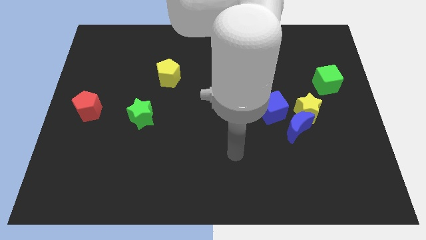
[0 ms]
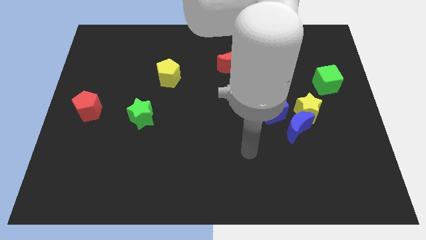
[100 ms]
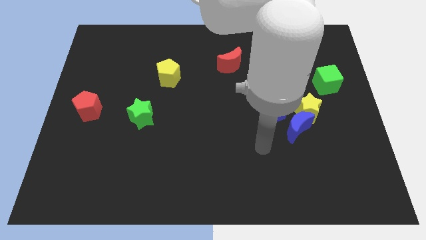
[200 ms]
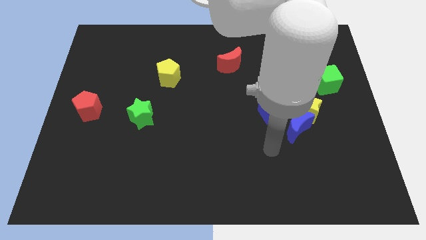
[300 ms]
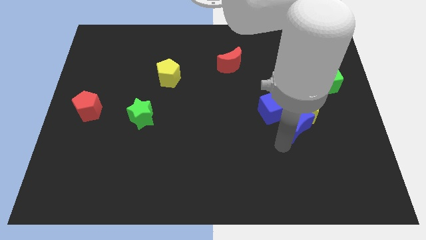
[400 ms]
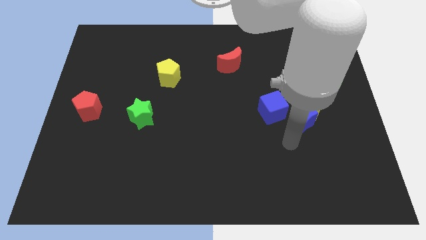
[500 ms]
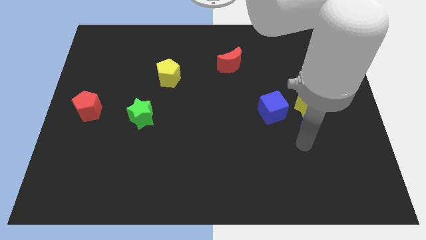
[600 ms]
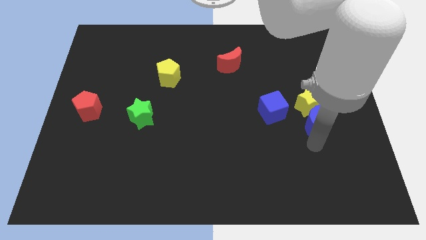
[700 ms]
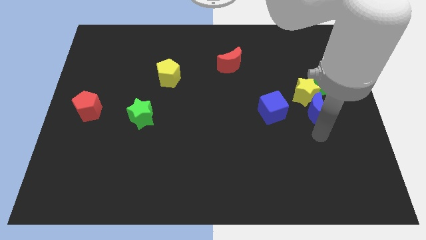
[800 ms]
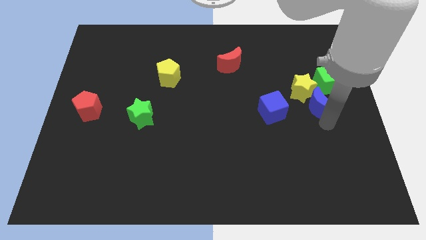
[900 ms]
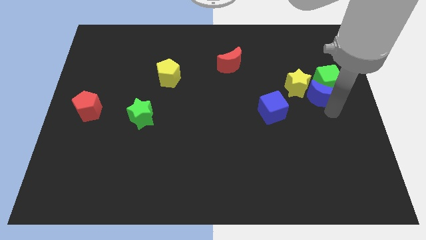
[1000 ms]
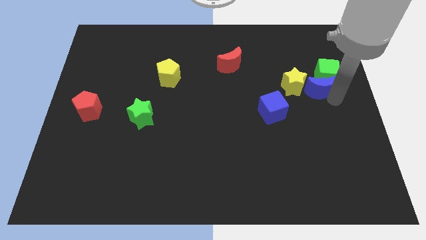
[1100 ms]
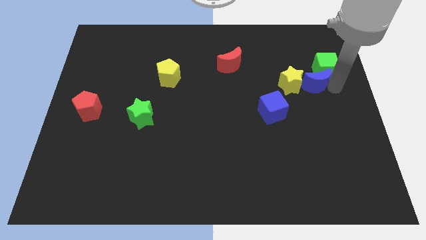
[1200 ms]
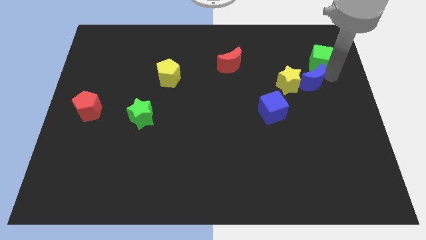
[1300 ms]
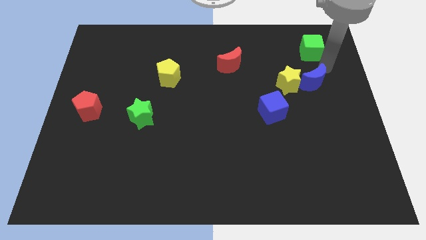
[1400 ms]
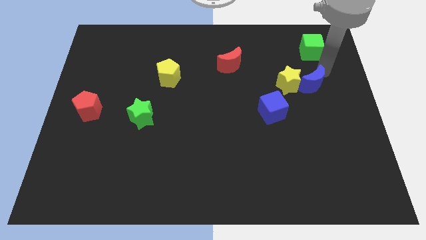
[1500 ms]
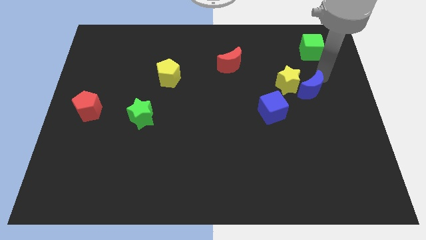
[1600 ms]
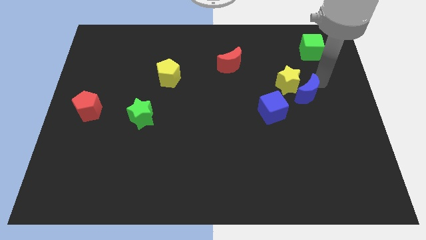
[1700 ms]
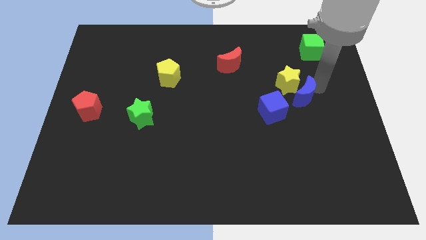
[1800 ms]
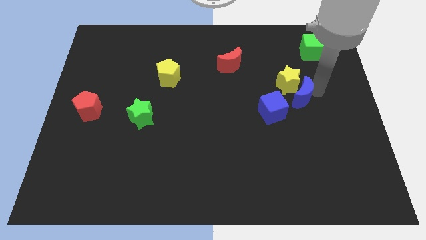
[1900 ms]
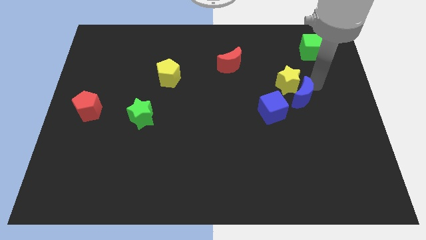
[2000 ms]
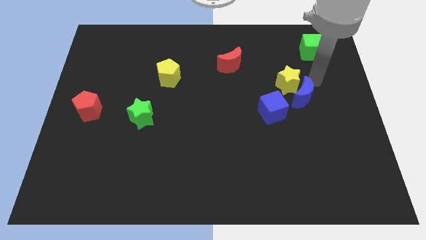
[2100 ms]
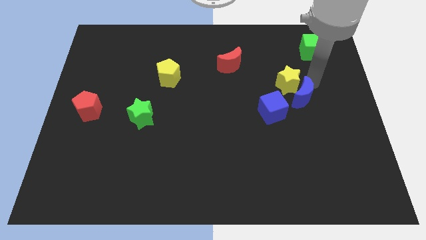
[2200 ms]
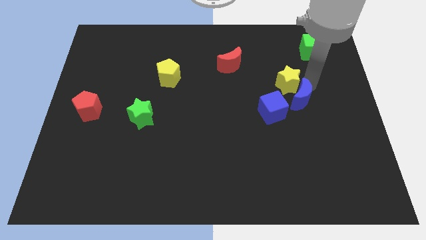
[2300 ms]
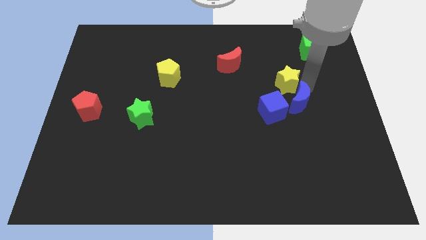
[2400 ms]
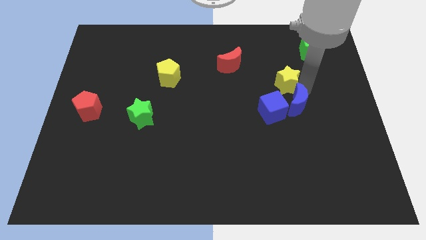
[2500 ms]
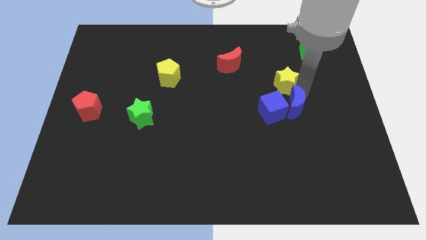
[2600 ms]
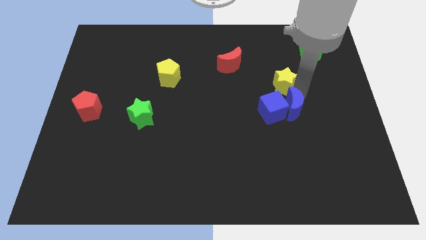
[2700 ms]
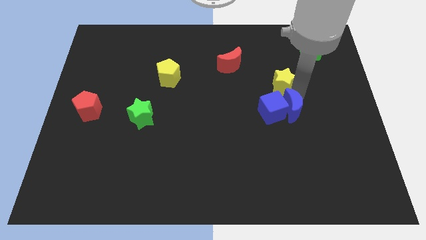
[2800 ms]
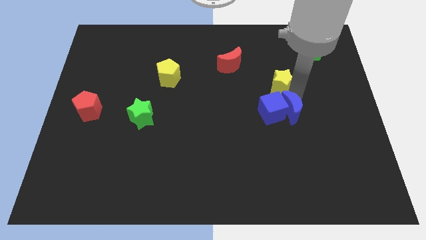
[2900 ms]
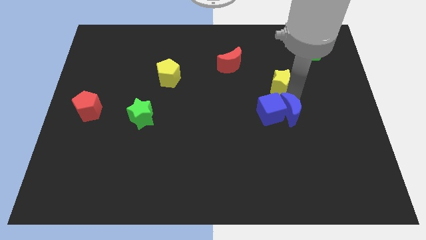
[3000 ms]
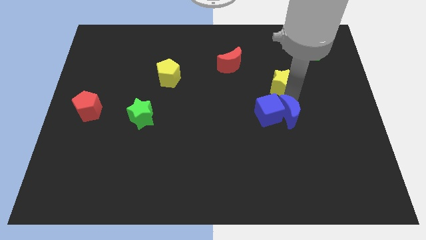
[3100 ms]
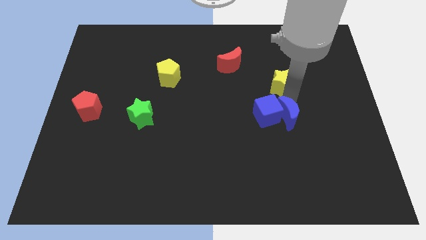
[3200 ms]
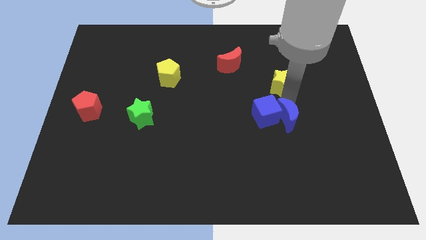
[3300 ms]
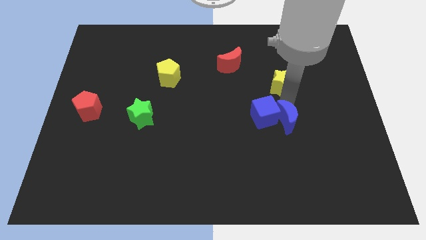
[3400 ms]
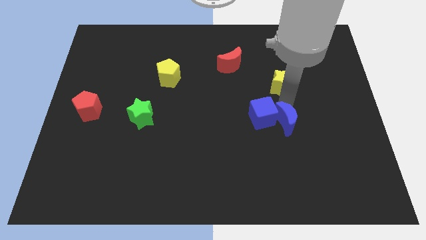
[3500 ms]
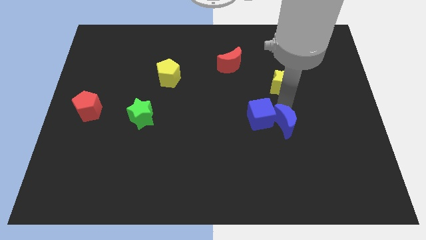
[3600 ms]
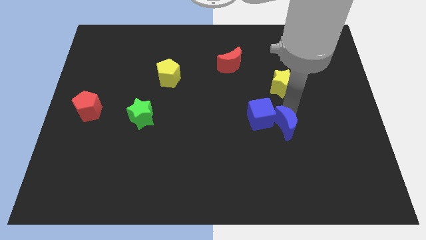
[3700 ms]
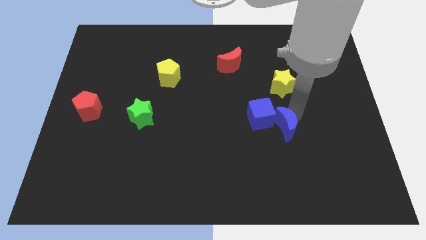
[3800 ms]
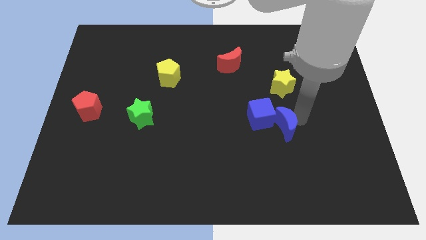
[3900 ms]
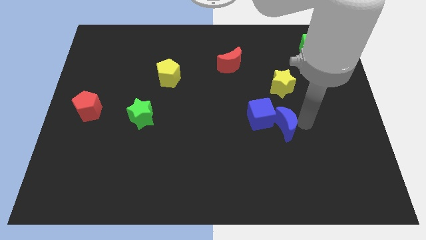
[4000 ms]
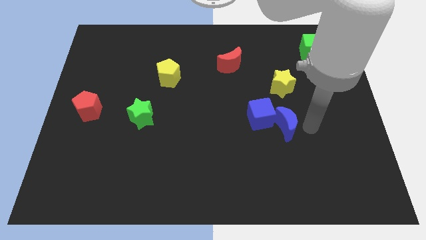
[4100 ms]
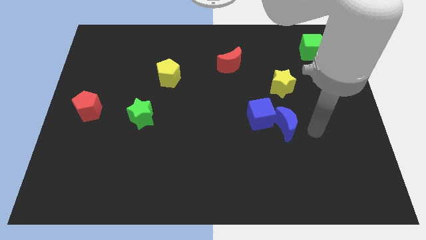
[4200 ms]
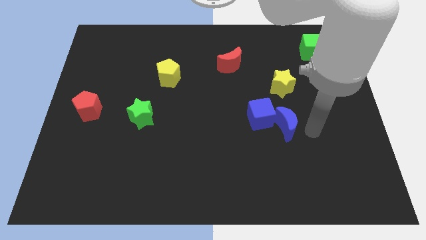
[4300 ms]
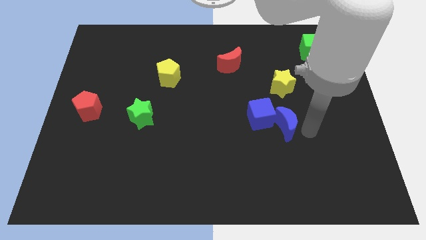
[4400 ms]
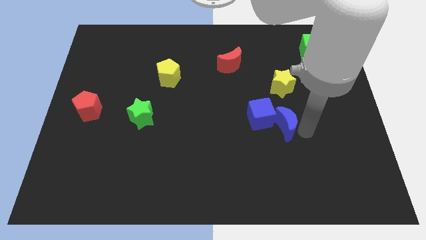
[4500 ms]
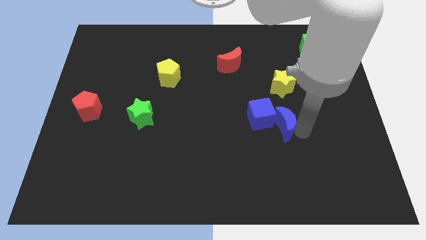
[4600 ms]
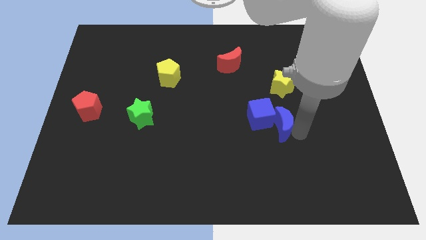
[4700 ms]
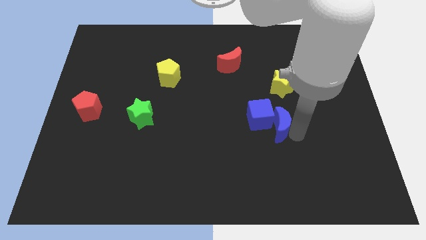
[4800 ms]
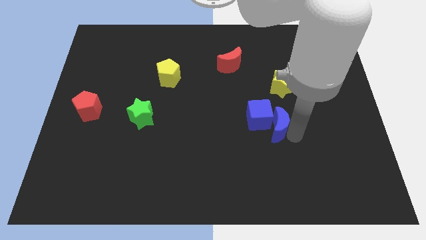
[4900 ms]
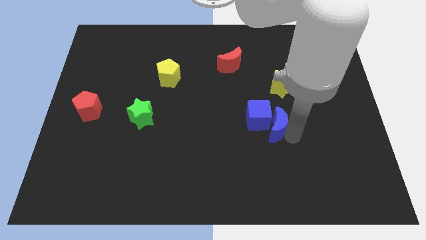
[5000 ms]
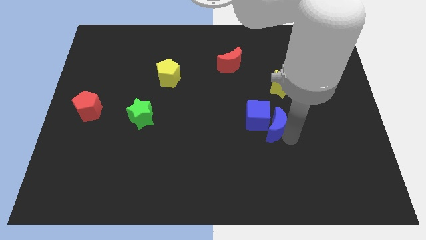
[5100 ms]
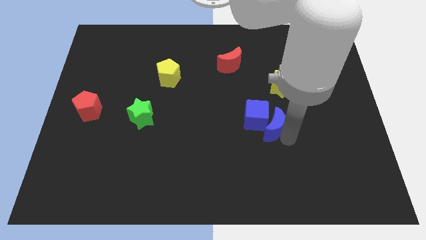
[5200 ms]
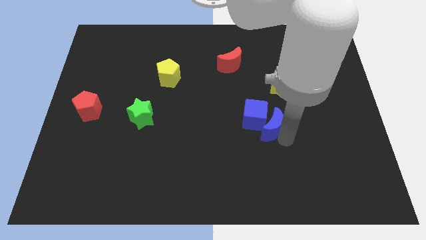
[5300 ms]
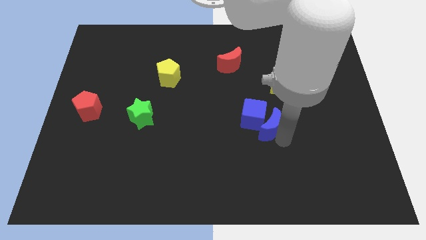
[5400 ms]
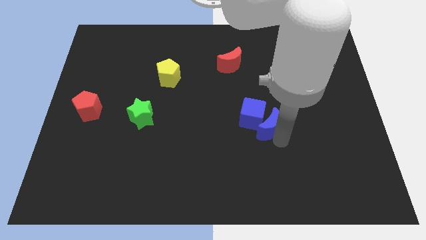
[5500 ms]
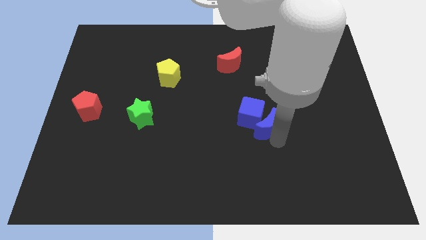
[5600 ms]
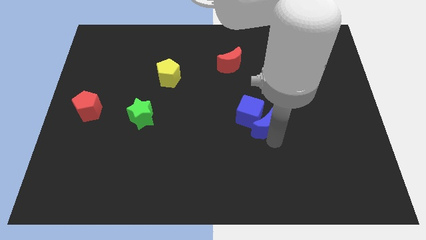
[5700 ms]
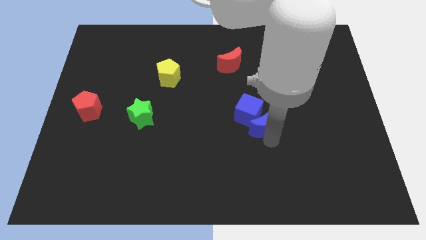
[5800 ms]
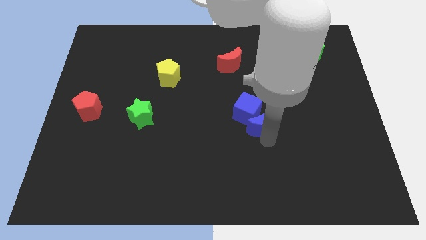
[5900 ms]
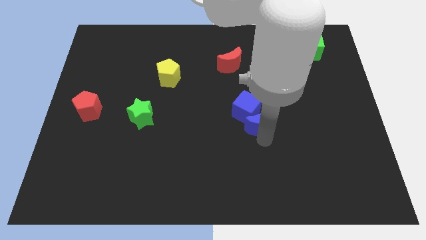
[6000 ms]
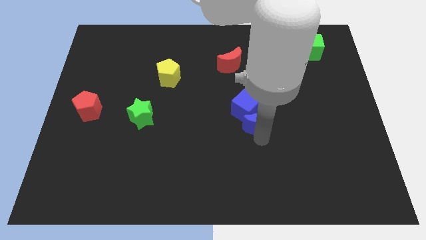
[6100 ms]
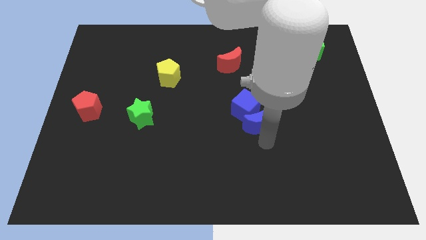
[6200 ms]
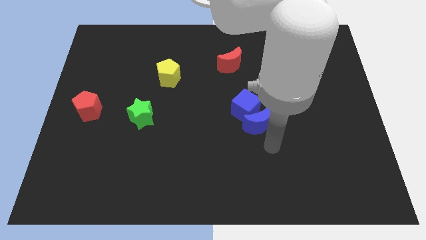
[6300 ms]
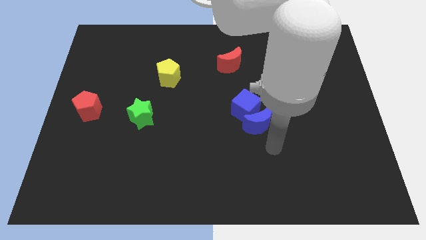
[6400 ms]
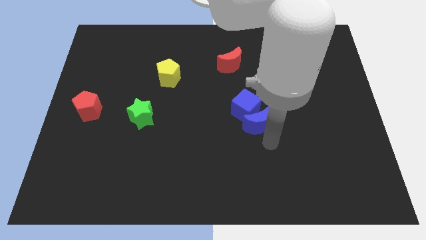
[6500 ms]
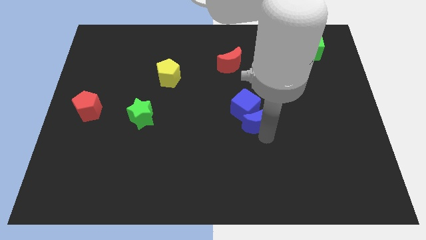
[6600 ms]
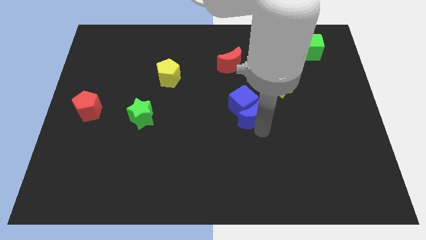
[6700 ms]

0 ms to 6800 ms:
move the blue moon a bit up and then left

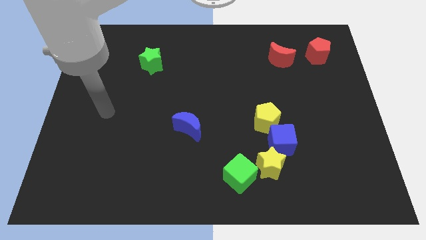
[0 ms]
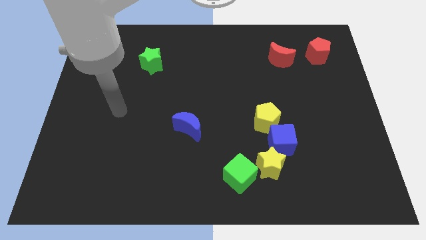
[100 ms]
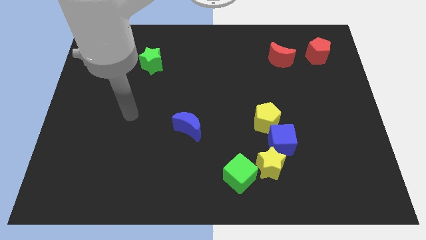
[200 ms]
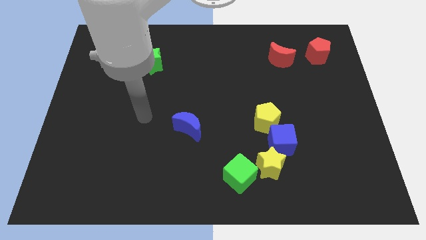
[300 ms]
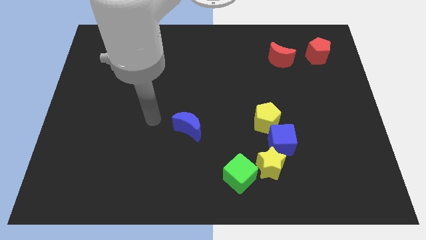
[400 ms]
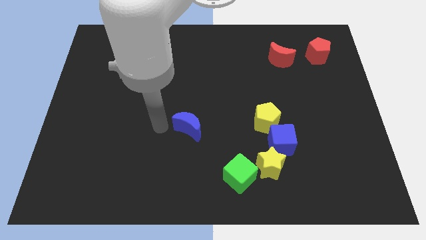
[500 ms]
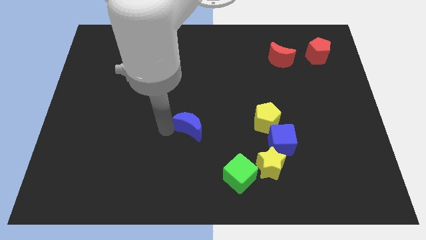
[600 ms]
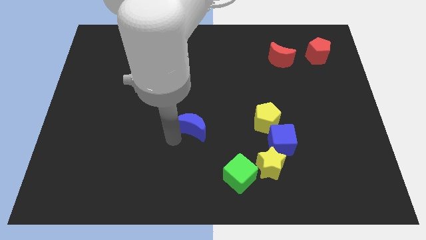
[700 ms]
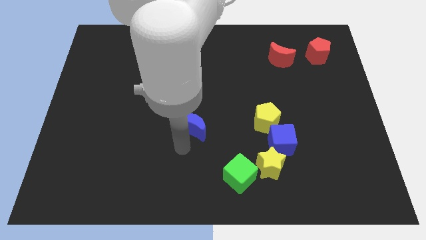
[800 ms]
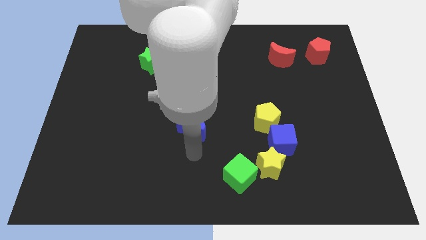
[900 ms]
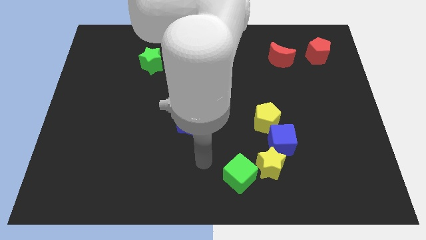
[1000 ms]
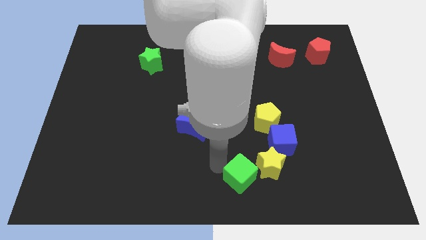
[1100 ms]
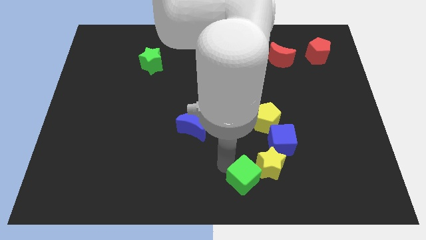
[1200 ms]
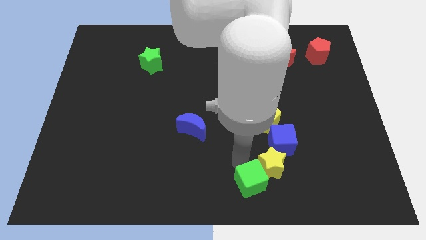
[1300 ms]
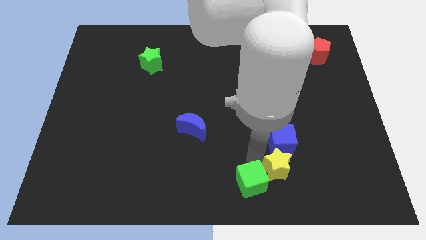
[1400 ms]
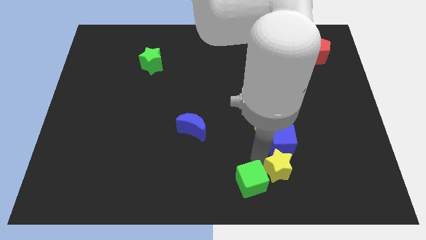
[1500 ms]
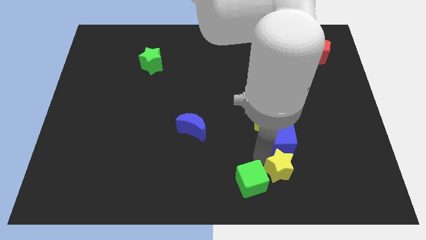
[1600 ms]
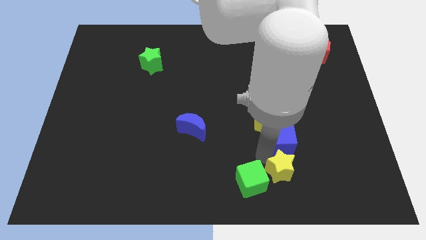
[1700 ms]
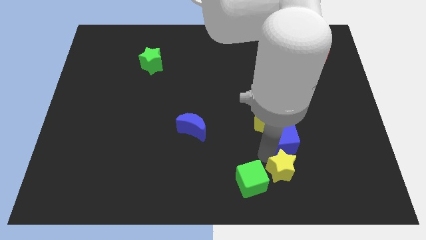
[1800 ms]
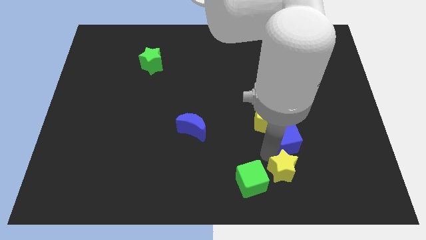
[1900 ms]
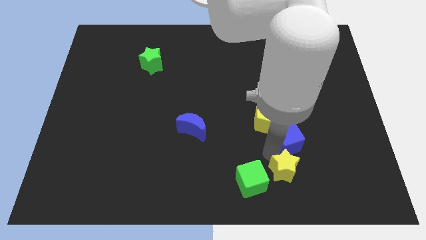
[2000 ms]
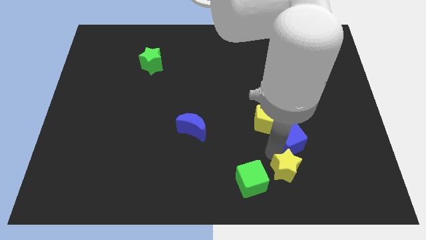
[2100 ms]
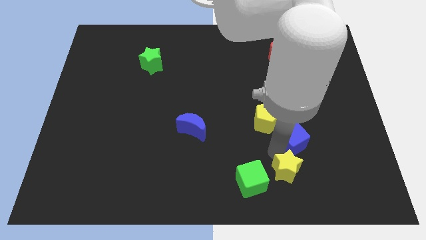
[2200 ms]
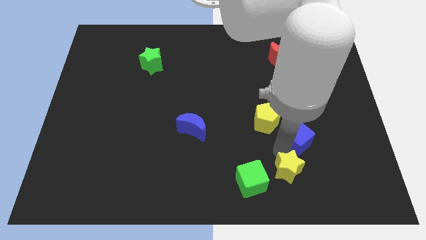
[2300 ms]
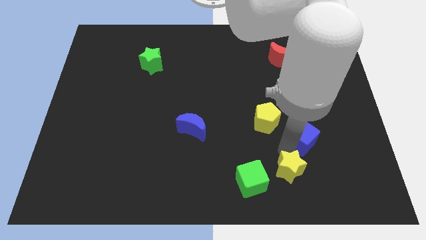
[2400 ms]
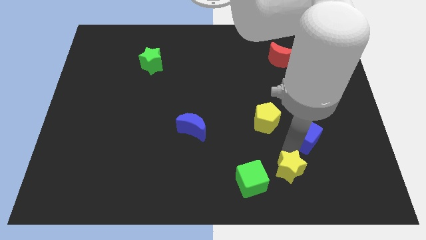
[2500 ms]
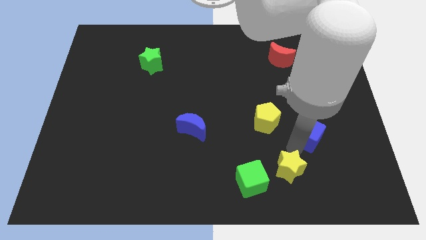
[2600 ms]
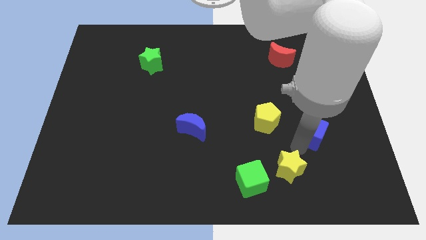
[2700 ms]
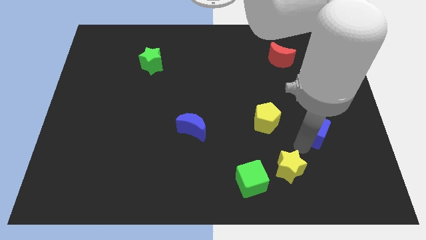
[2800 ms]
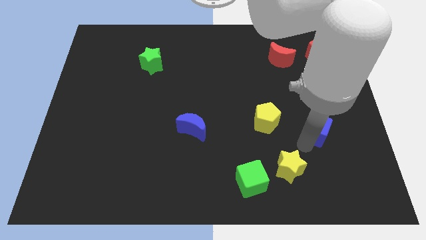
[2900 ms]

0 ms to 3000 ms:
slide the blue cube diagonally up and right slightly
